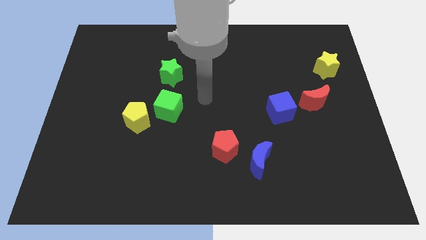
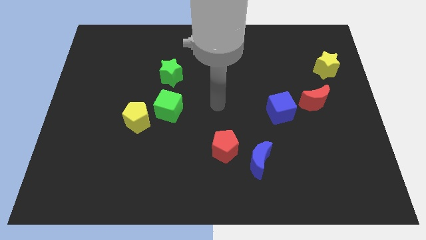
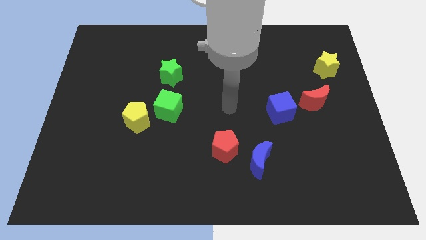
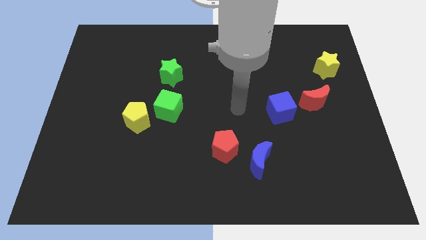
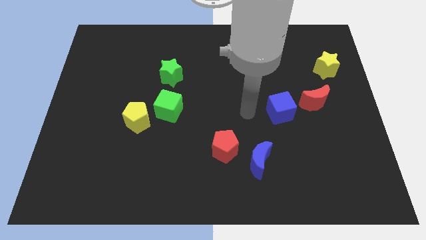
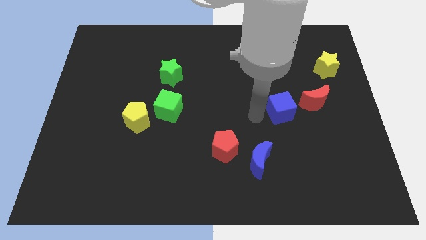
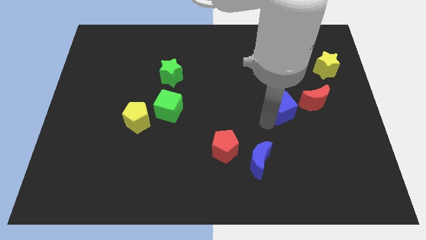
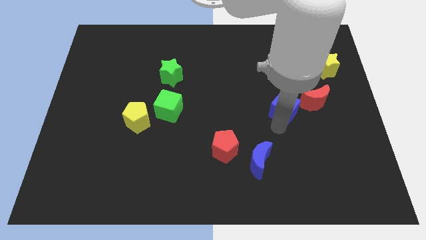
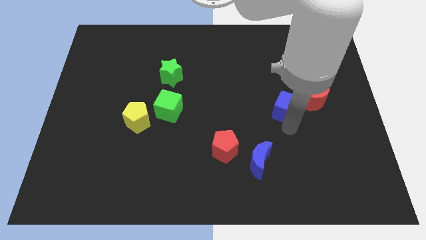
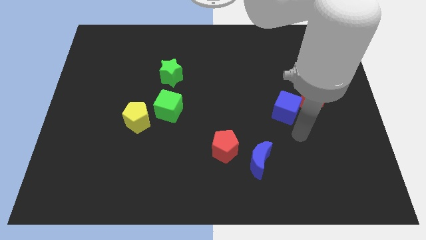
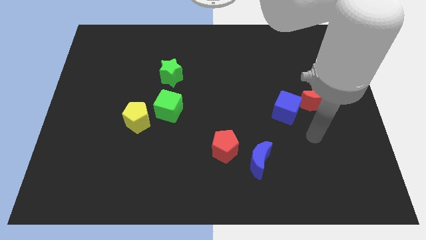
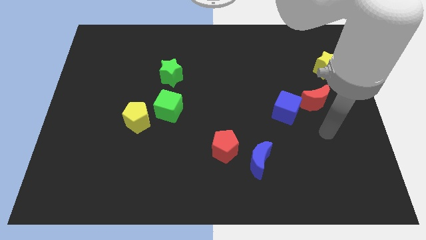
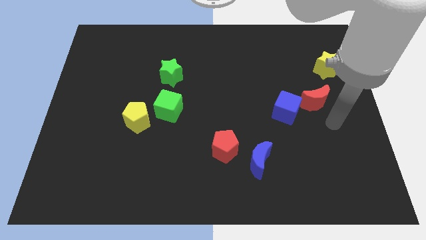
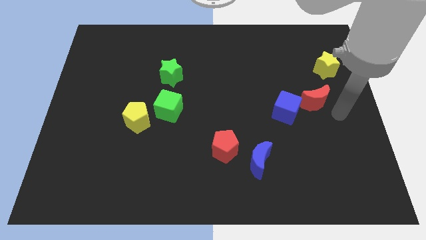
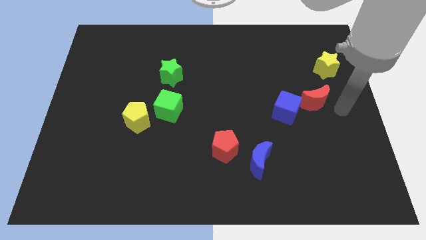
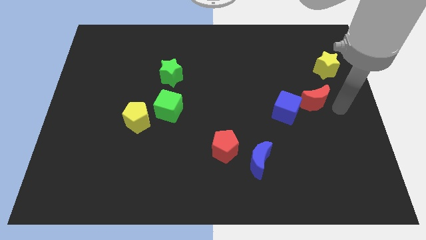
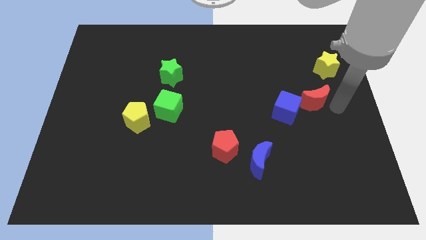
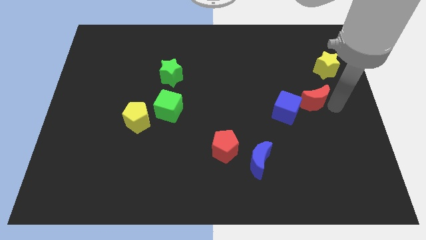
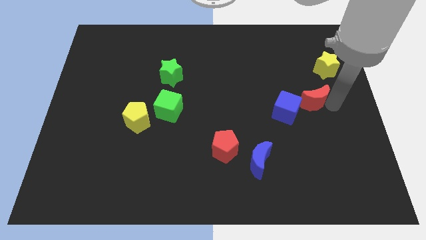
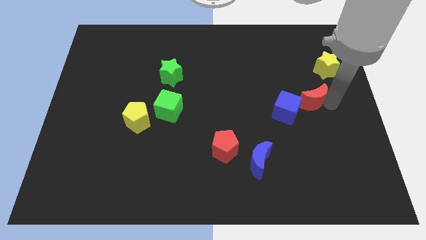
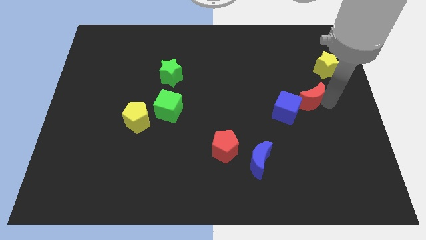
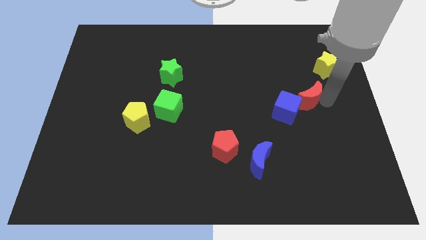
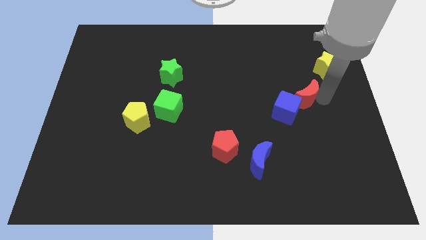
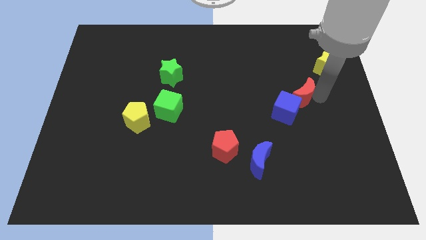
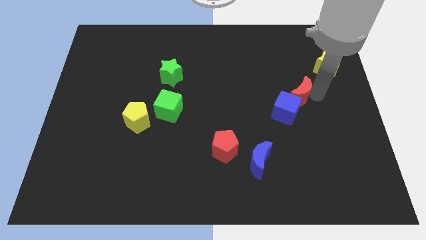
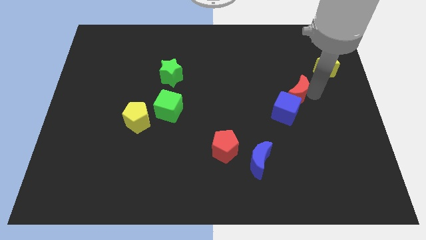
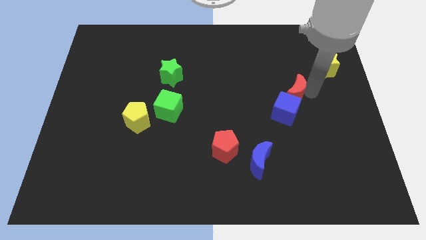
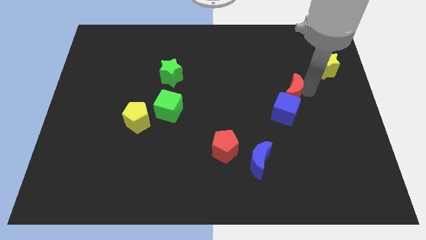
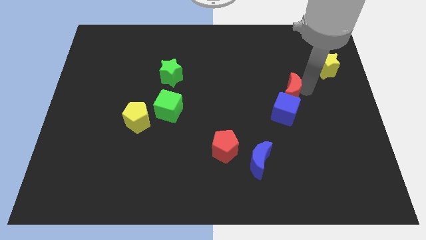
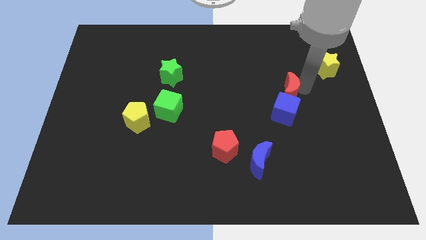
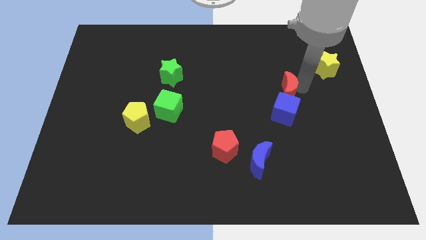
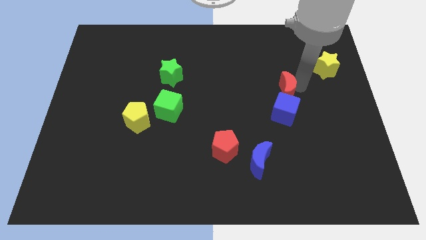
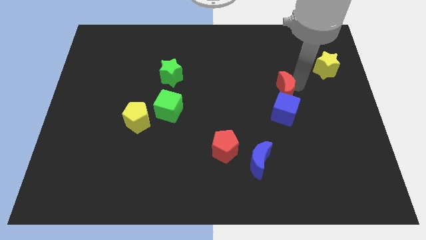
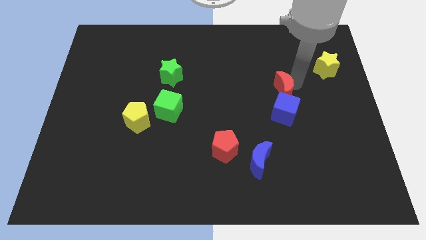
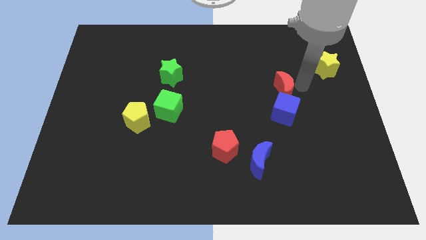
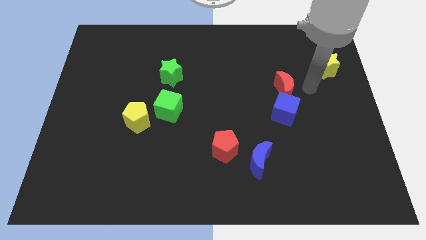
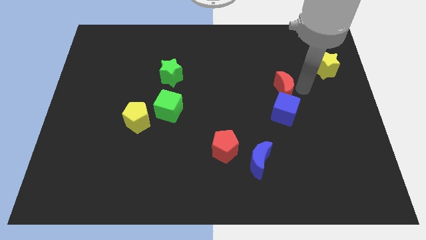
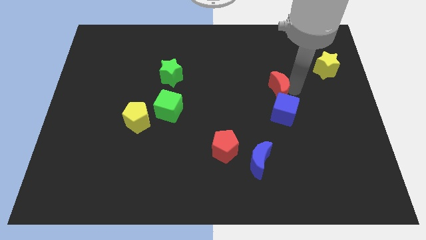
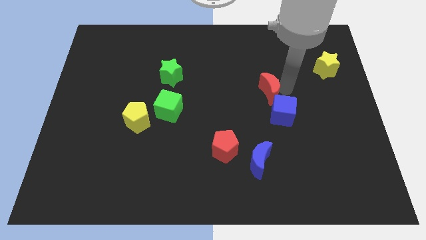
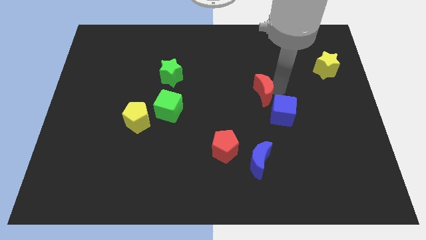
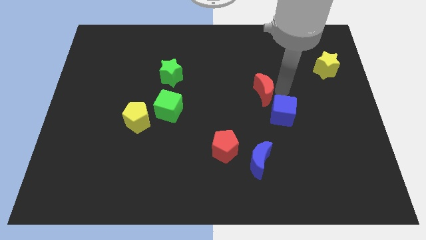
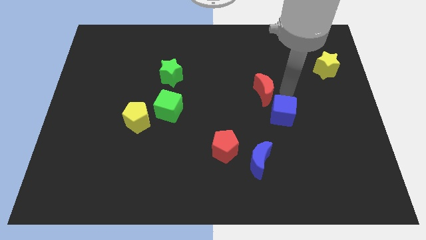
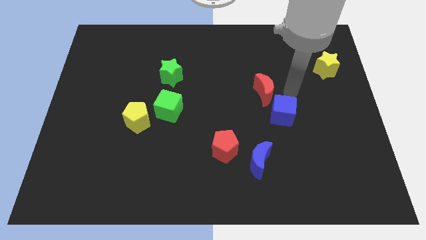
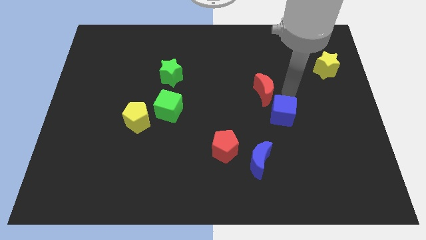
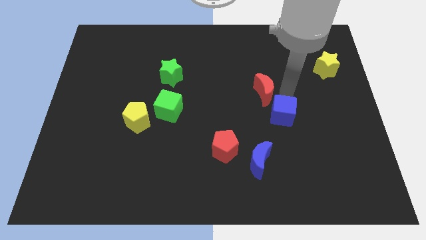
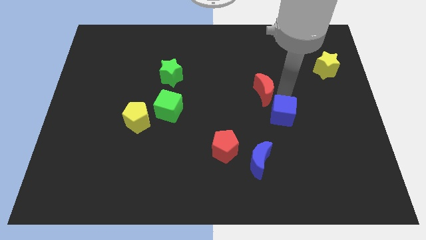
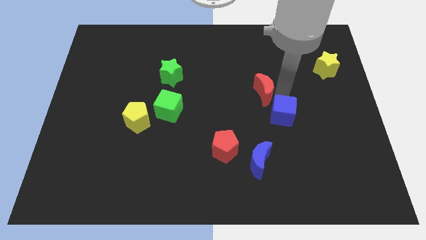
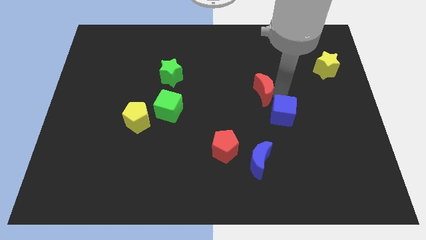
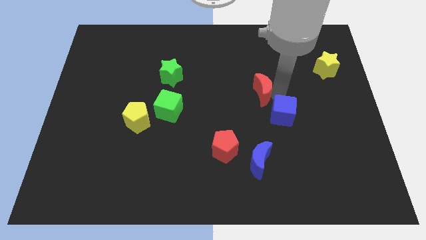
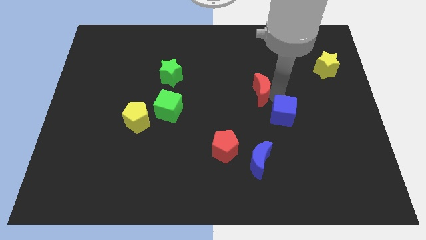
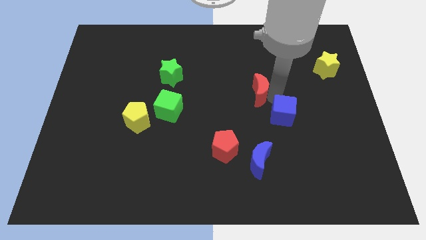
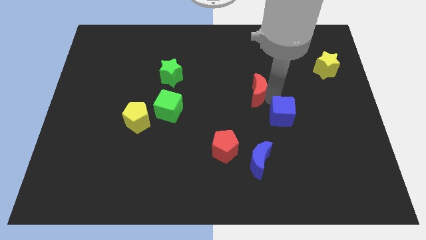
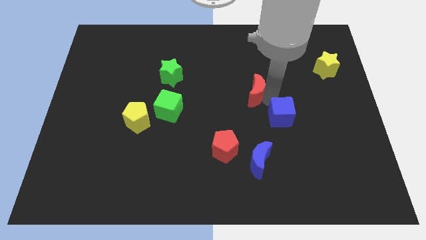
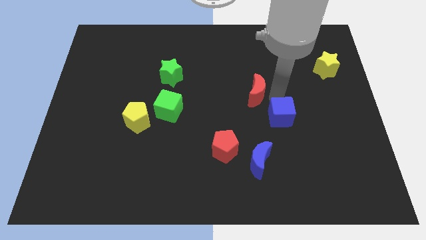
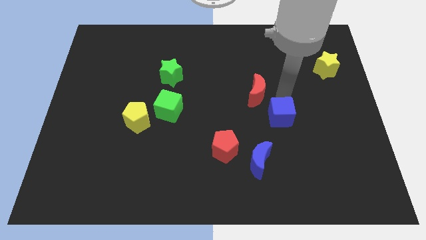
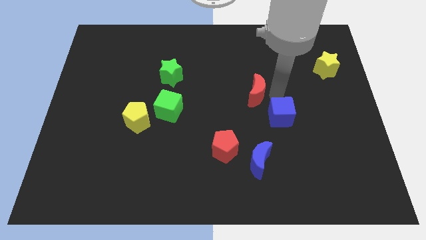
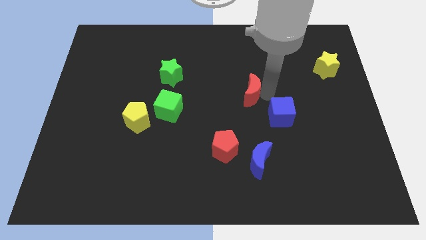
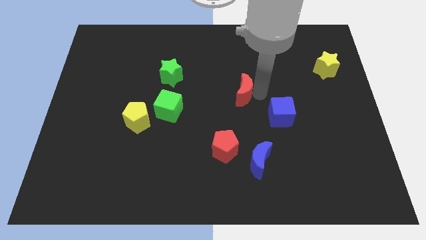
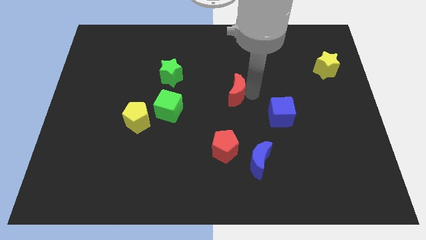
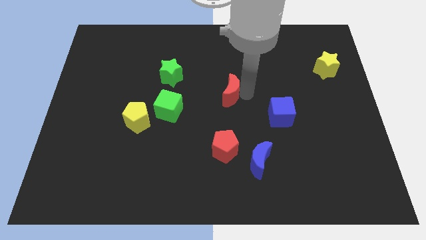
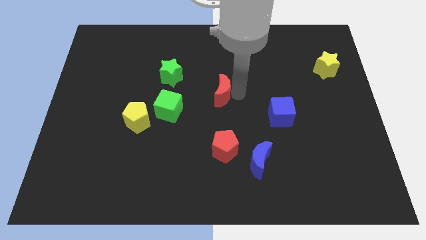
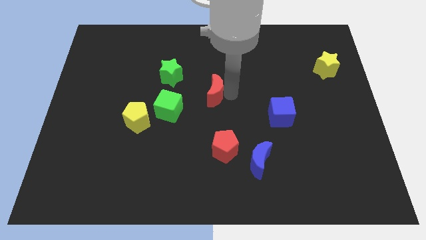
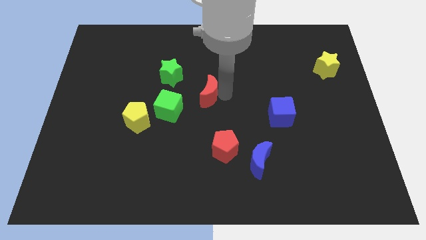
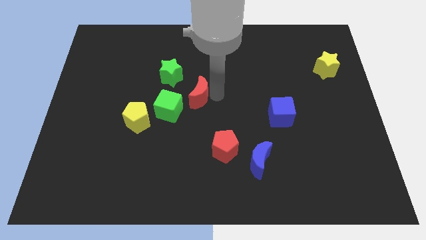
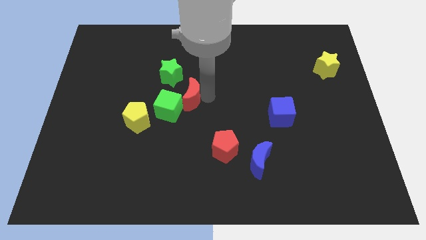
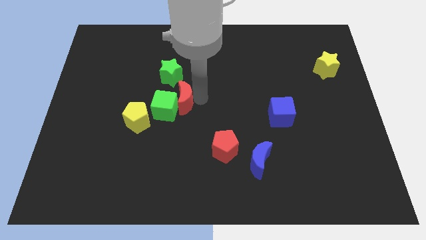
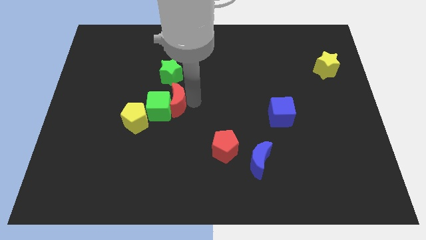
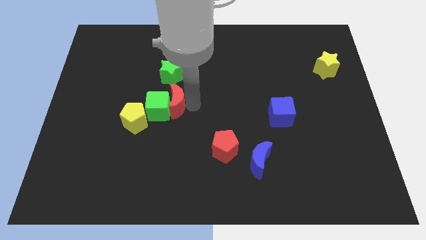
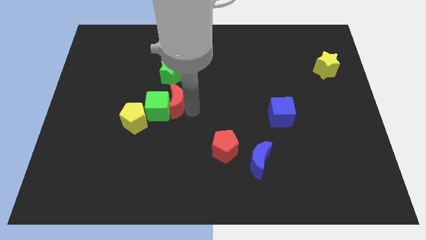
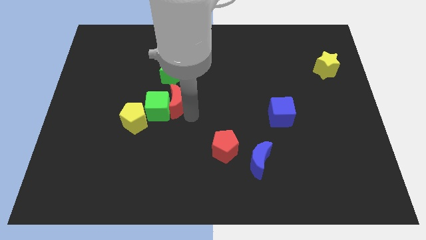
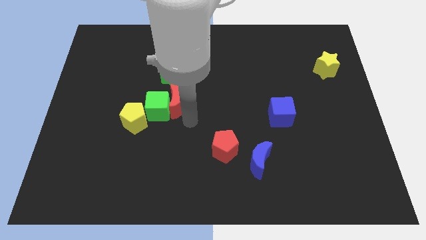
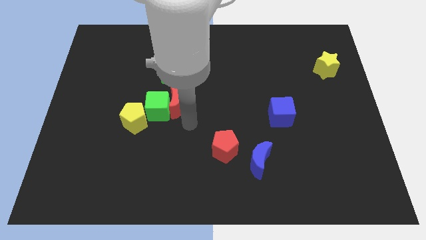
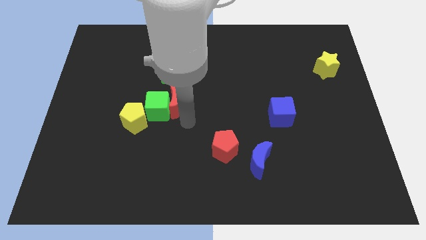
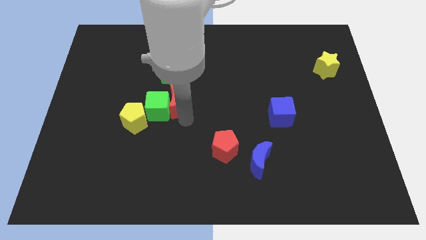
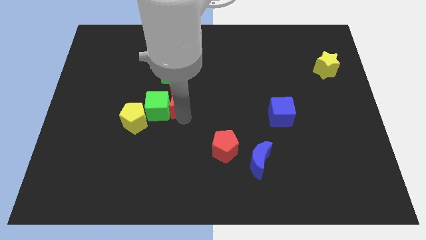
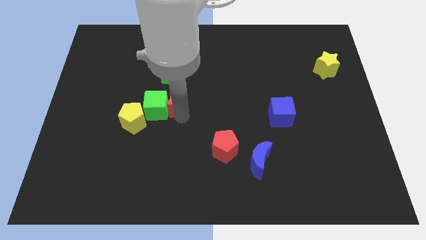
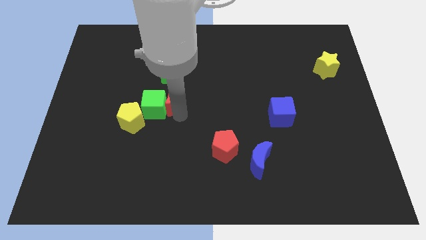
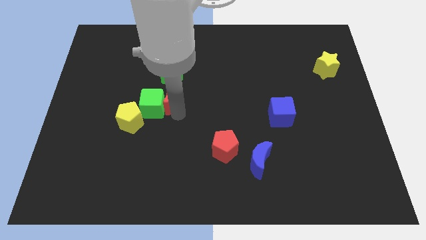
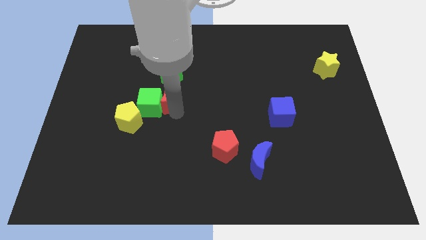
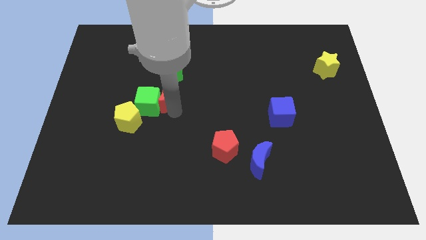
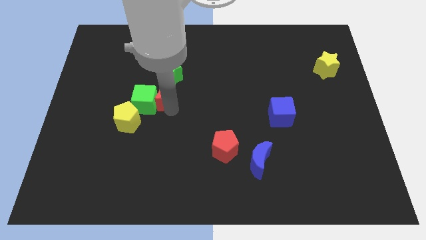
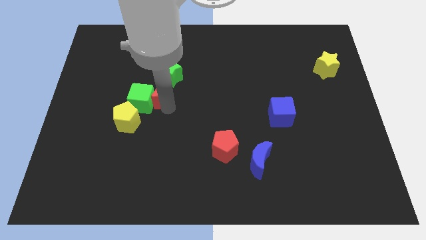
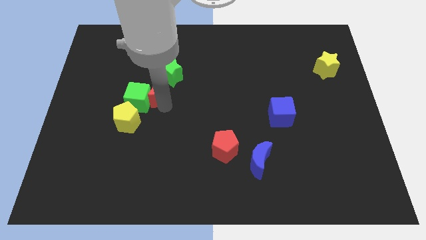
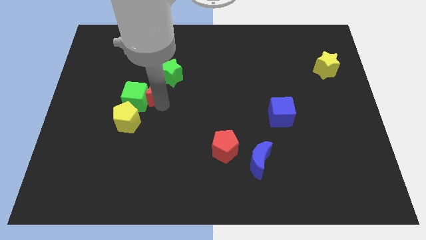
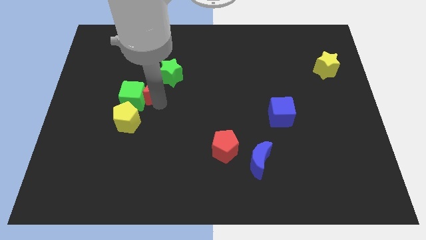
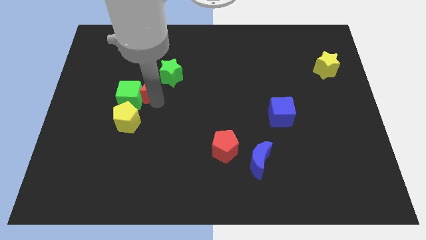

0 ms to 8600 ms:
move the red moon to the top of the yellow pentagon
